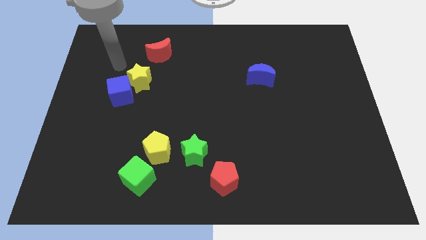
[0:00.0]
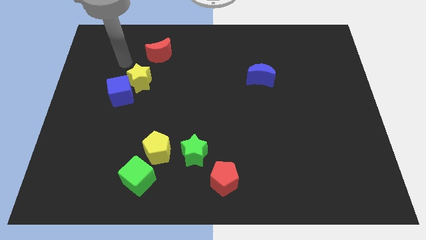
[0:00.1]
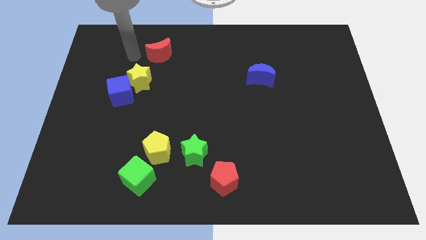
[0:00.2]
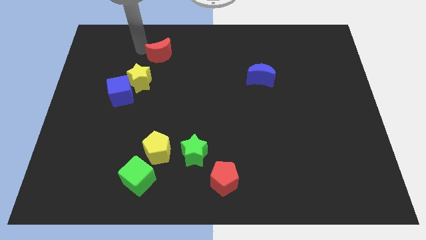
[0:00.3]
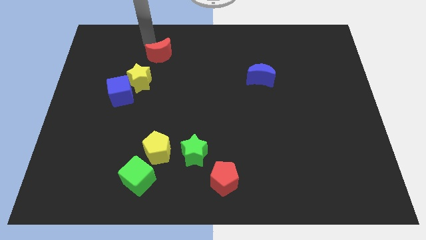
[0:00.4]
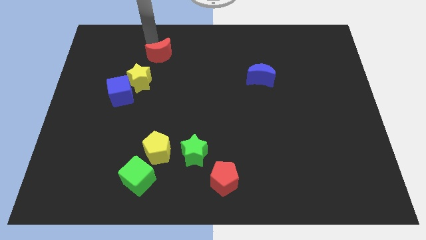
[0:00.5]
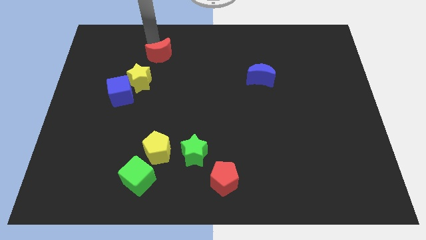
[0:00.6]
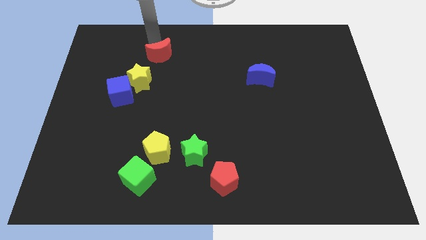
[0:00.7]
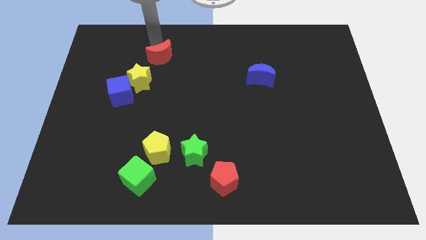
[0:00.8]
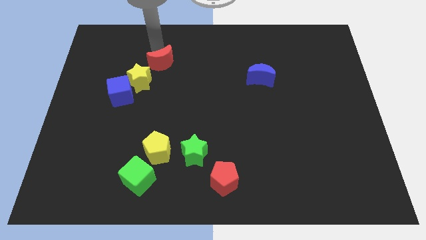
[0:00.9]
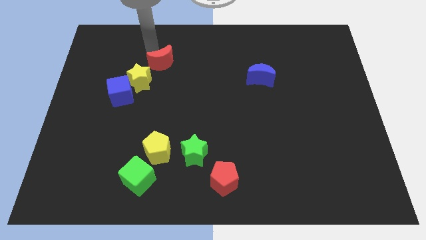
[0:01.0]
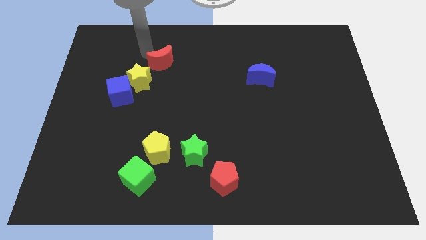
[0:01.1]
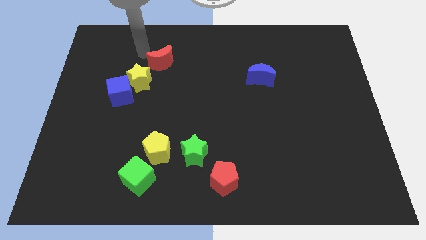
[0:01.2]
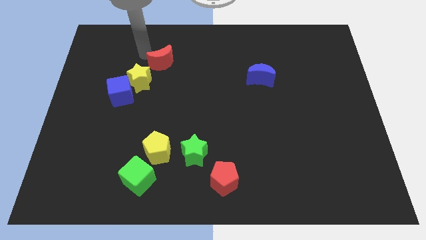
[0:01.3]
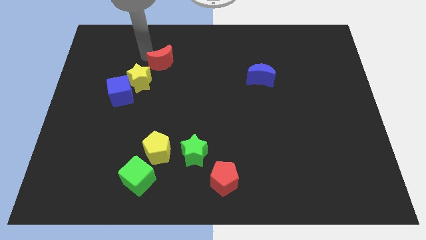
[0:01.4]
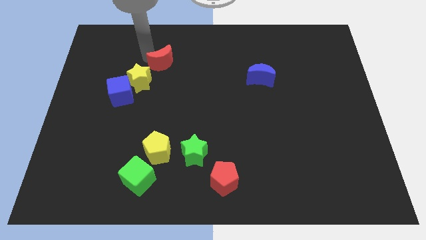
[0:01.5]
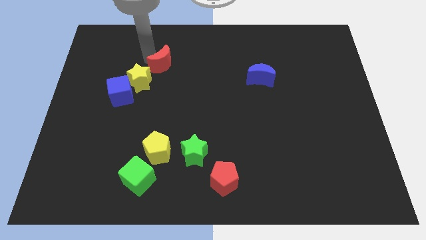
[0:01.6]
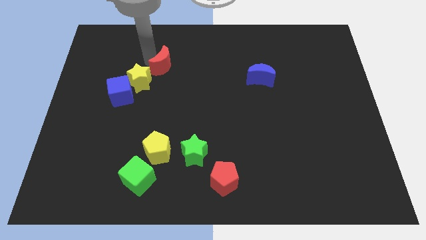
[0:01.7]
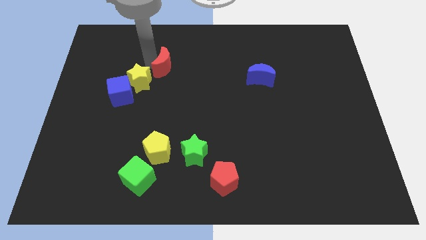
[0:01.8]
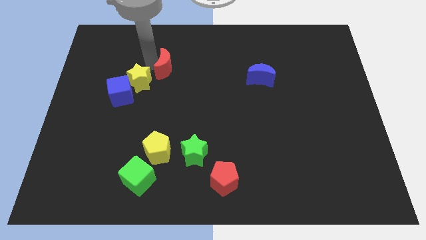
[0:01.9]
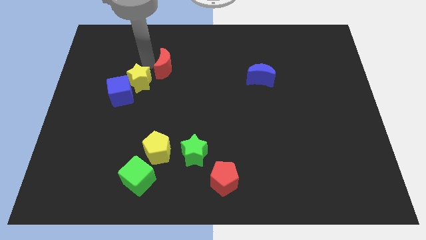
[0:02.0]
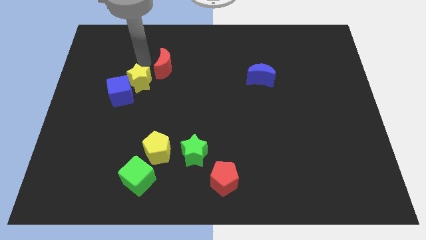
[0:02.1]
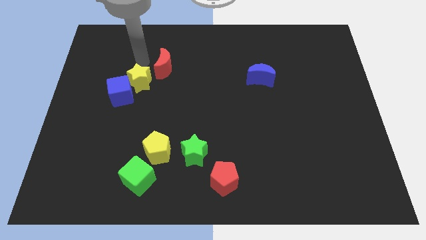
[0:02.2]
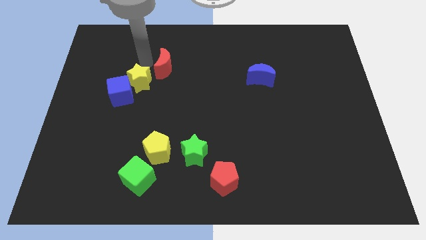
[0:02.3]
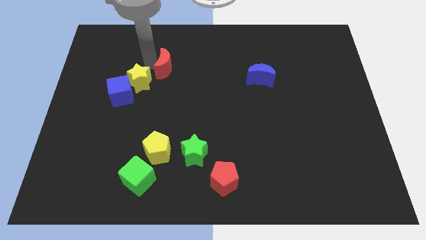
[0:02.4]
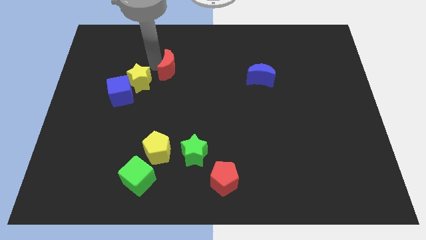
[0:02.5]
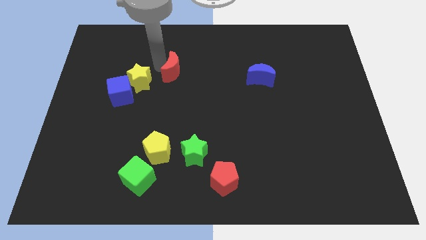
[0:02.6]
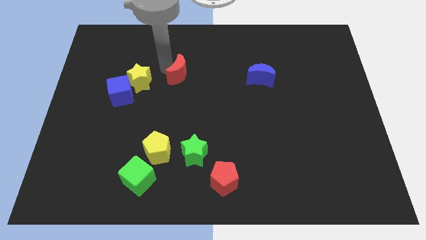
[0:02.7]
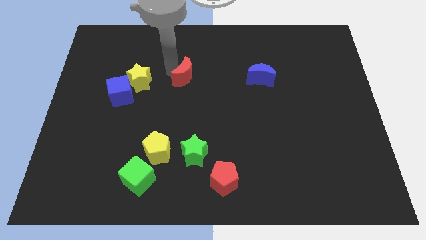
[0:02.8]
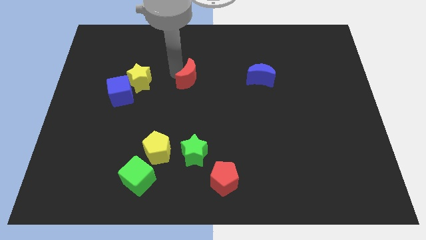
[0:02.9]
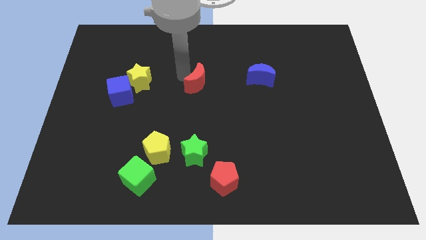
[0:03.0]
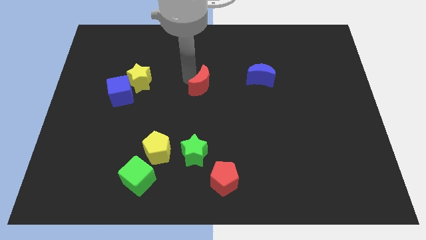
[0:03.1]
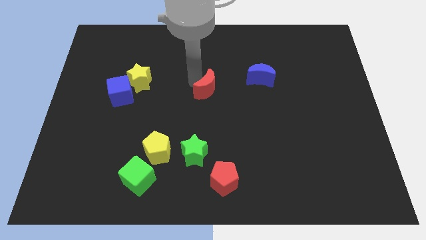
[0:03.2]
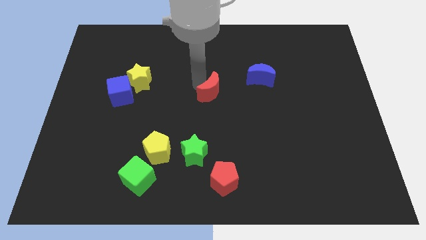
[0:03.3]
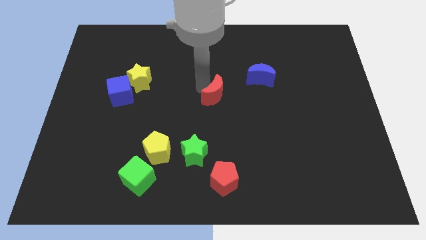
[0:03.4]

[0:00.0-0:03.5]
move the red moon down and right diagonally

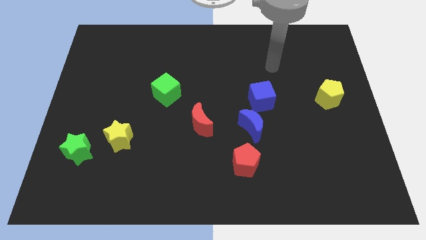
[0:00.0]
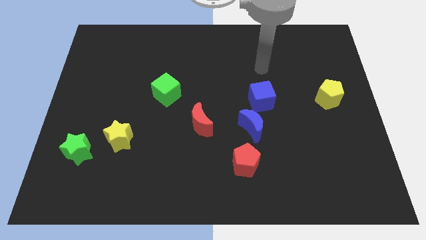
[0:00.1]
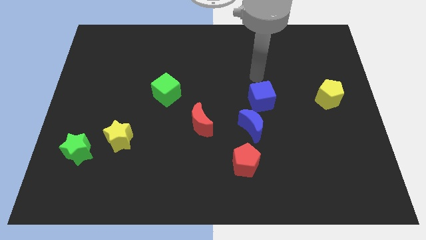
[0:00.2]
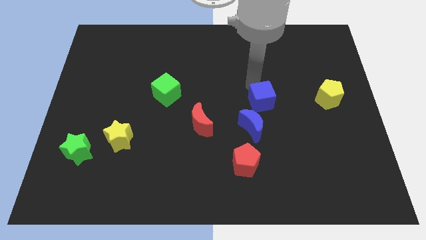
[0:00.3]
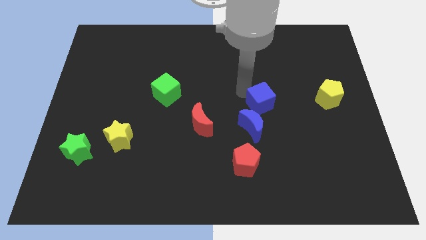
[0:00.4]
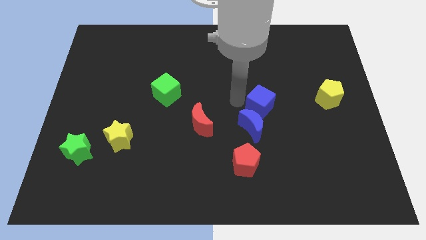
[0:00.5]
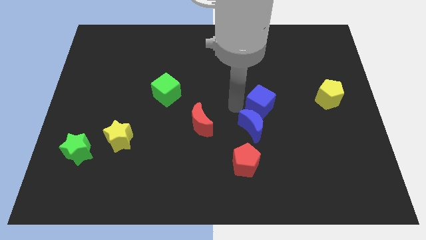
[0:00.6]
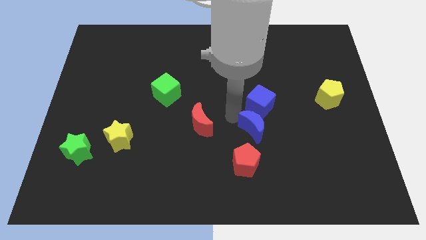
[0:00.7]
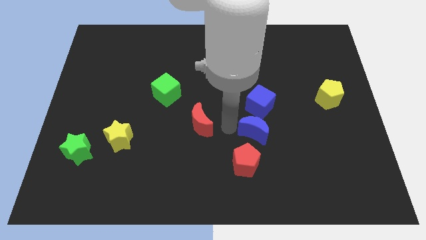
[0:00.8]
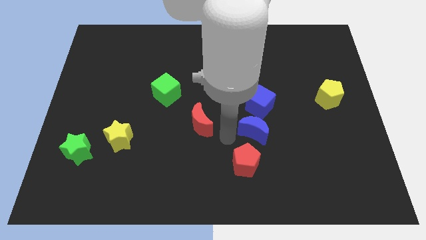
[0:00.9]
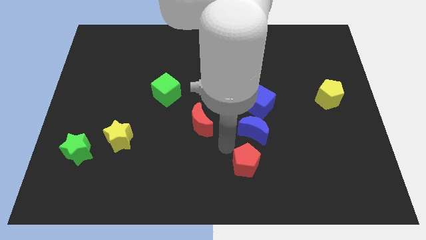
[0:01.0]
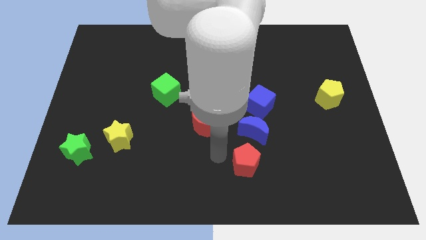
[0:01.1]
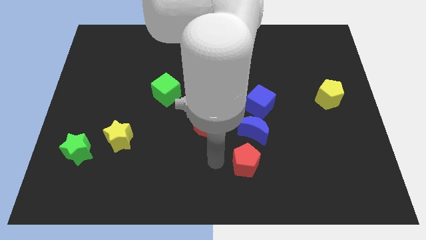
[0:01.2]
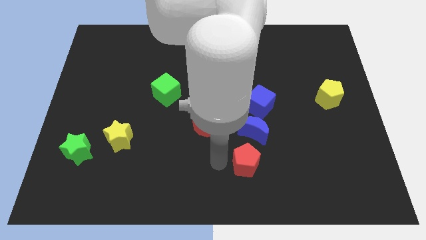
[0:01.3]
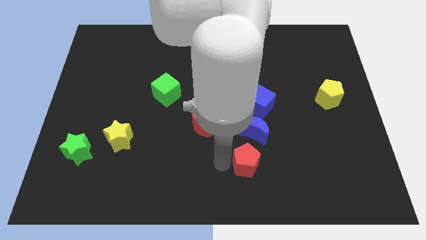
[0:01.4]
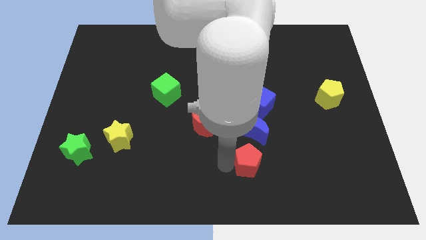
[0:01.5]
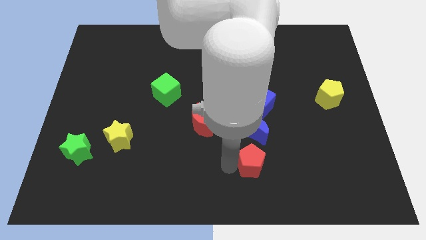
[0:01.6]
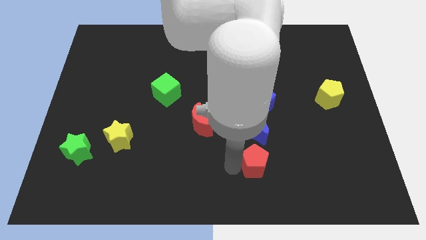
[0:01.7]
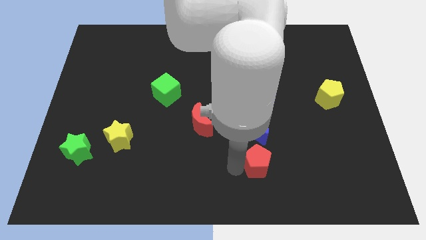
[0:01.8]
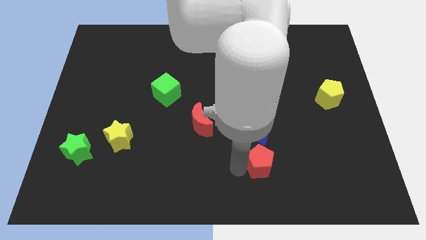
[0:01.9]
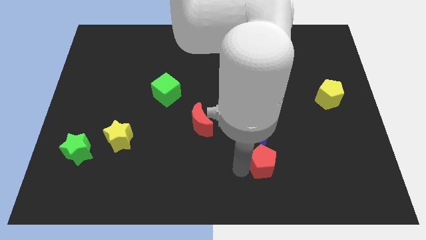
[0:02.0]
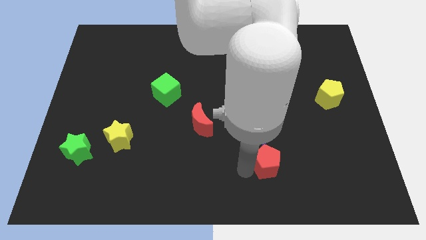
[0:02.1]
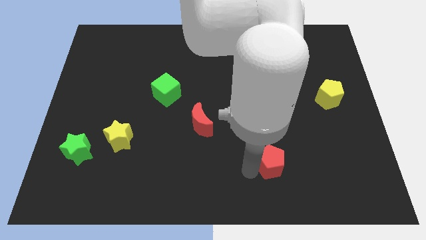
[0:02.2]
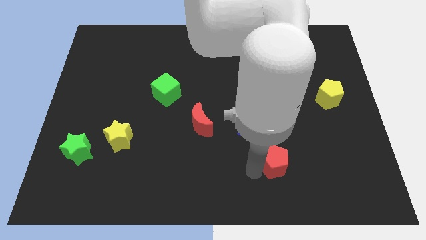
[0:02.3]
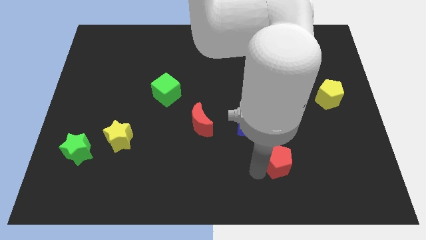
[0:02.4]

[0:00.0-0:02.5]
slide the red pentagon a little bit right

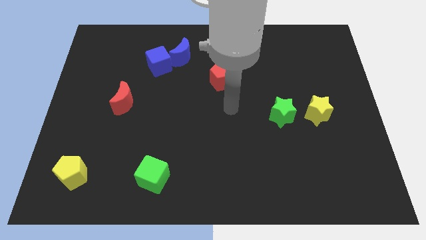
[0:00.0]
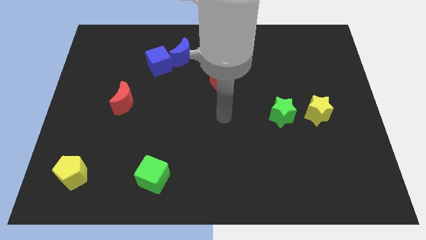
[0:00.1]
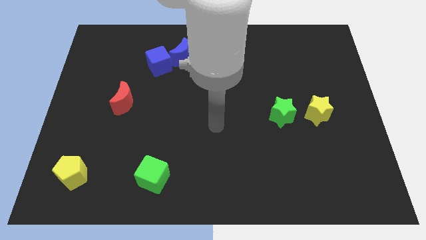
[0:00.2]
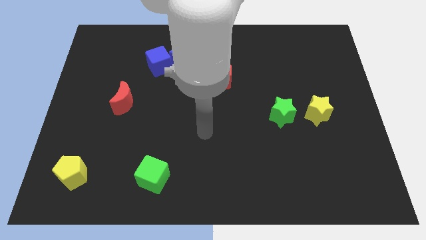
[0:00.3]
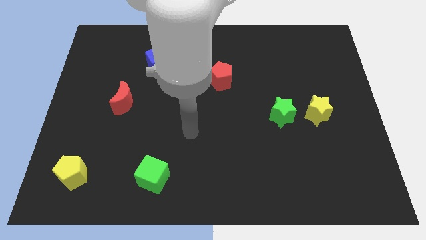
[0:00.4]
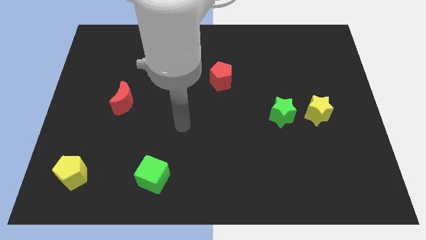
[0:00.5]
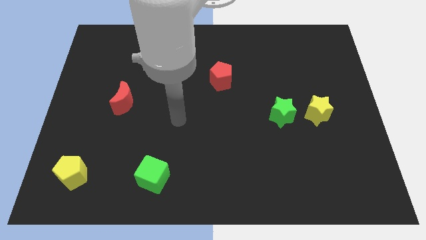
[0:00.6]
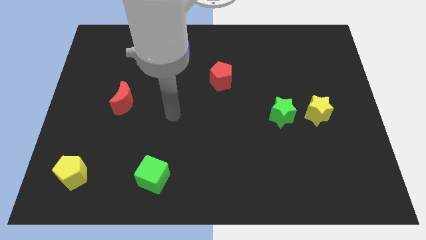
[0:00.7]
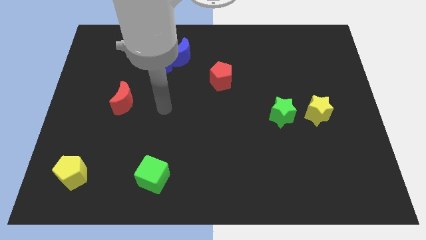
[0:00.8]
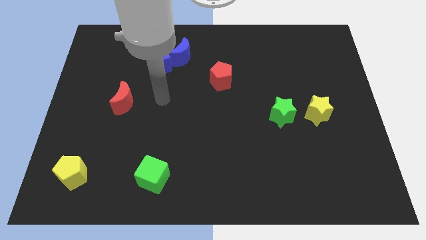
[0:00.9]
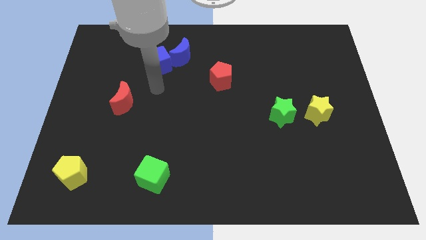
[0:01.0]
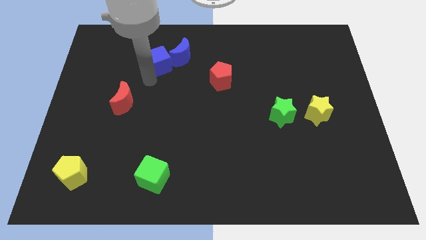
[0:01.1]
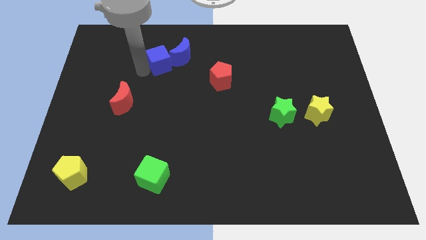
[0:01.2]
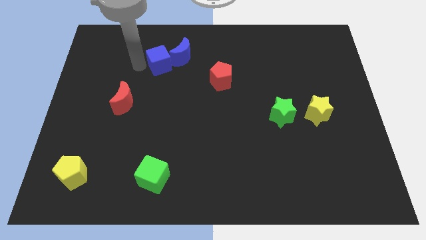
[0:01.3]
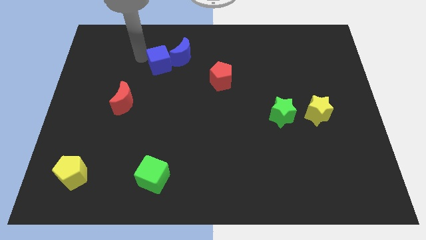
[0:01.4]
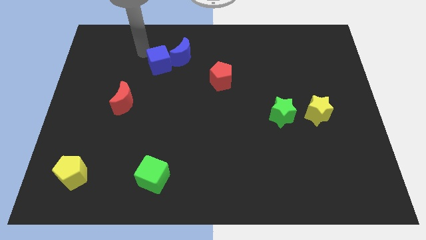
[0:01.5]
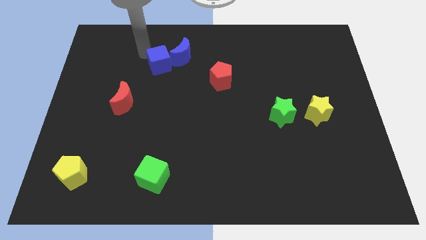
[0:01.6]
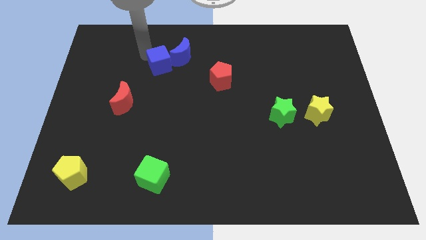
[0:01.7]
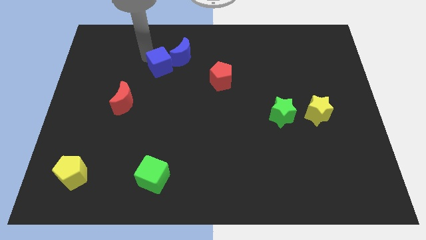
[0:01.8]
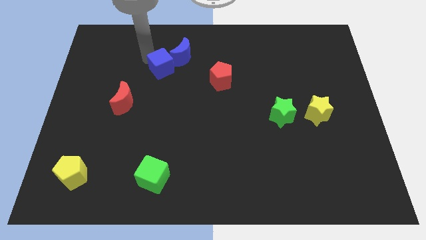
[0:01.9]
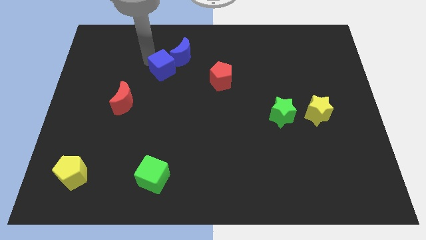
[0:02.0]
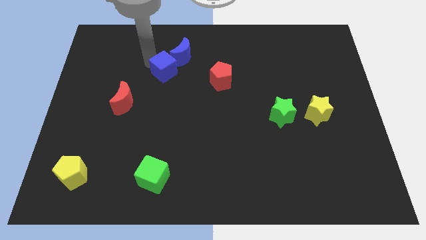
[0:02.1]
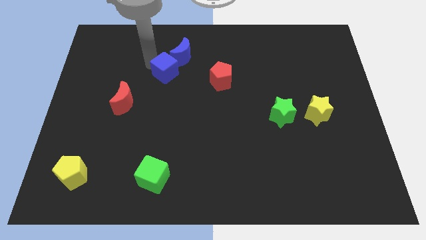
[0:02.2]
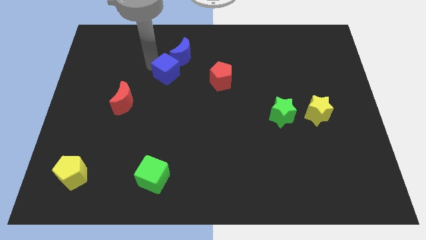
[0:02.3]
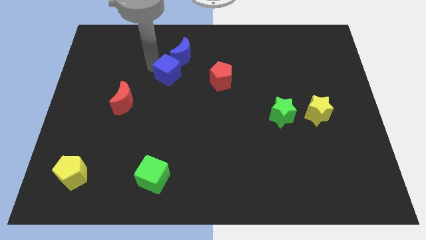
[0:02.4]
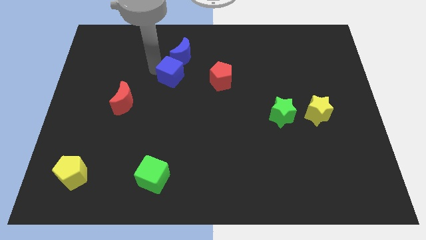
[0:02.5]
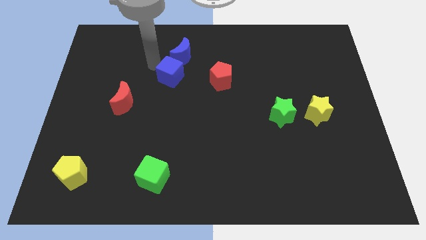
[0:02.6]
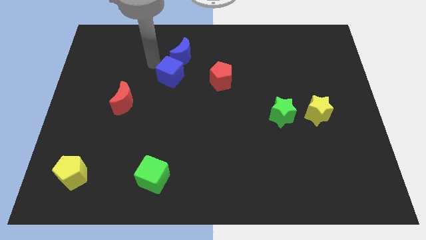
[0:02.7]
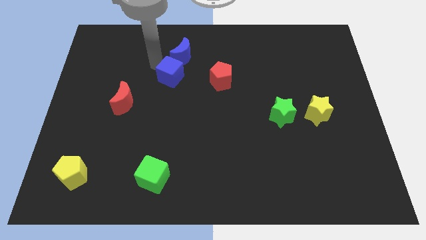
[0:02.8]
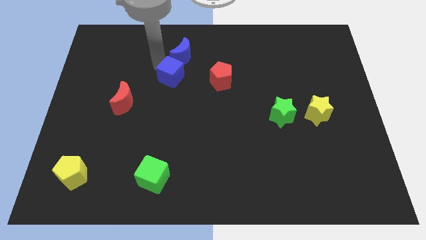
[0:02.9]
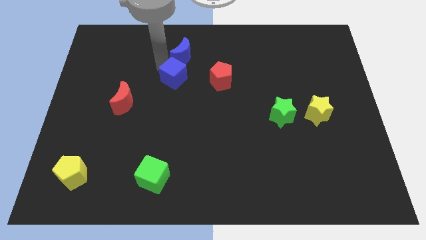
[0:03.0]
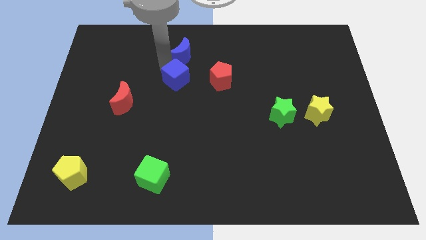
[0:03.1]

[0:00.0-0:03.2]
slightly push the blue cube down and right
